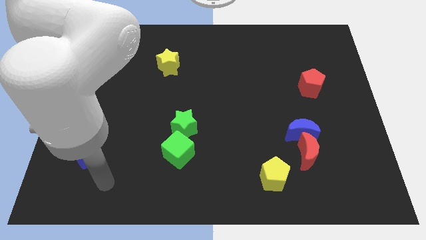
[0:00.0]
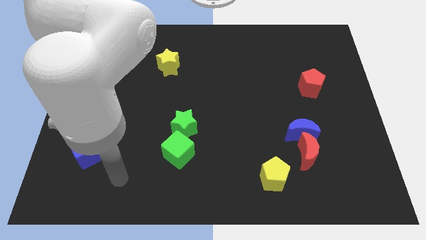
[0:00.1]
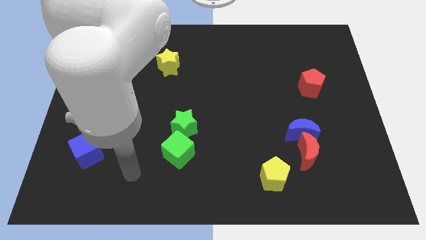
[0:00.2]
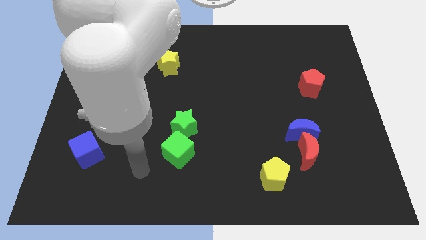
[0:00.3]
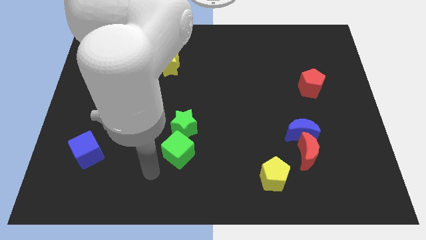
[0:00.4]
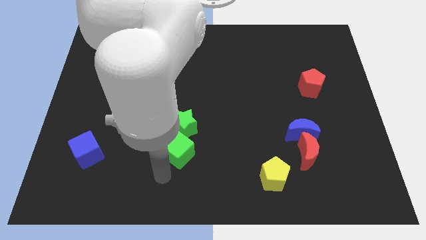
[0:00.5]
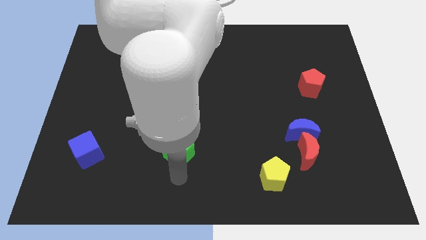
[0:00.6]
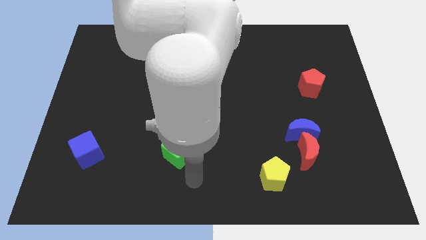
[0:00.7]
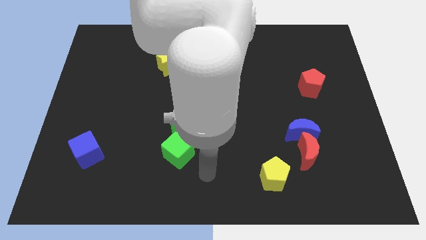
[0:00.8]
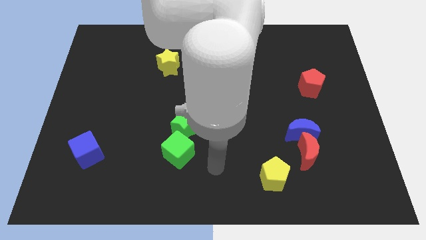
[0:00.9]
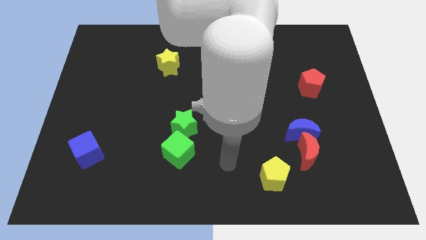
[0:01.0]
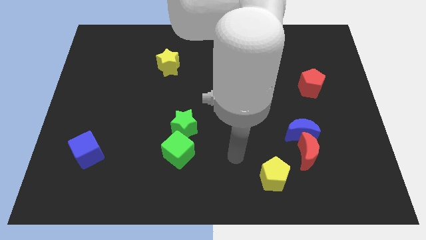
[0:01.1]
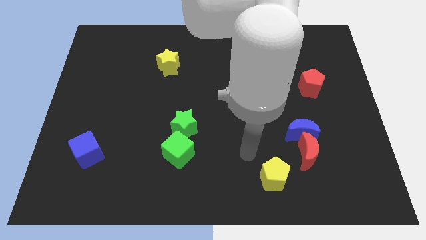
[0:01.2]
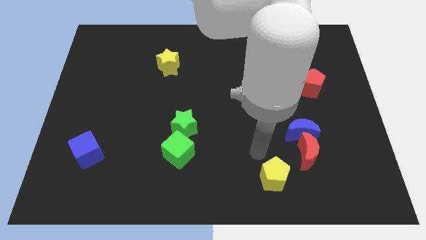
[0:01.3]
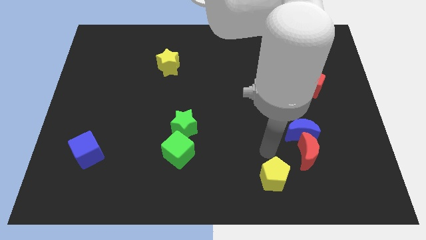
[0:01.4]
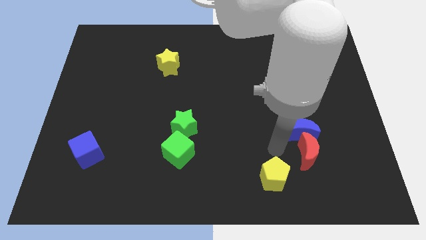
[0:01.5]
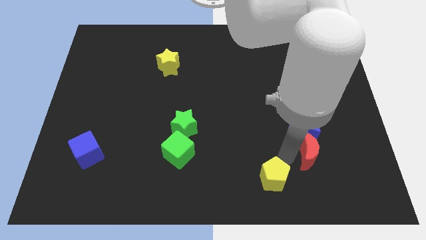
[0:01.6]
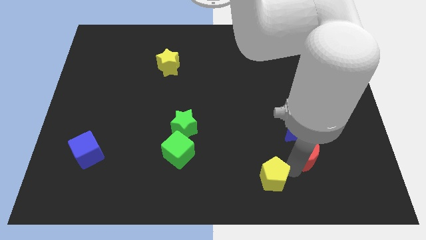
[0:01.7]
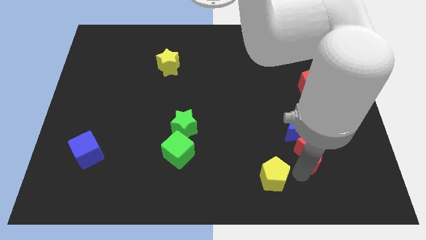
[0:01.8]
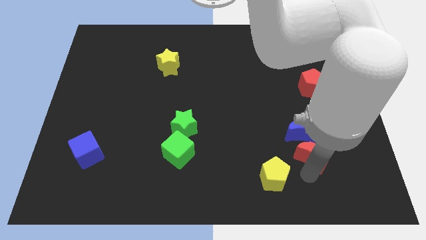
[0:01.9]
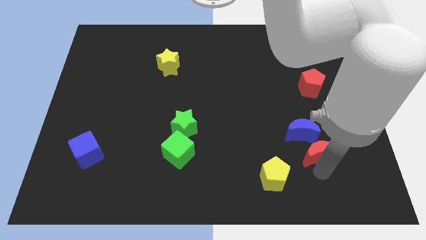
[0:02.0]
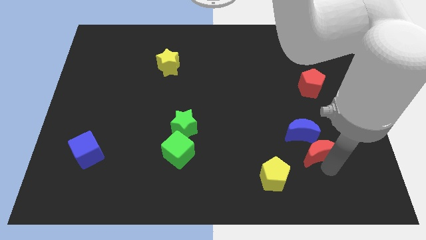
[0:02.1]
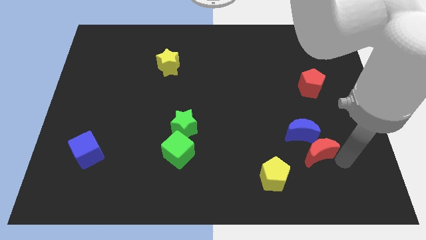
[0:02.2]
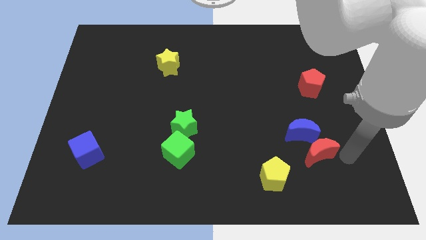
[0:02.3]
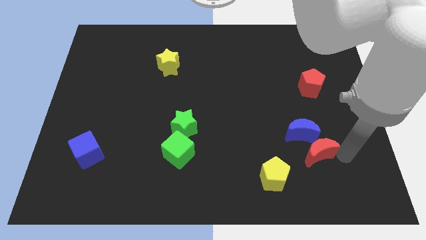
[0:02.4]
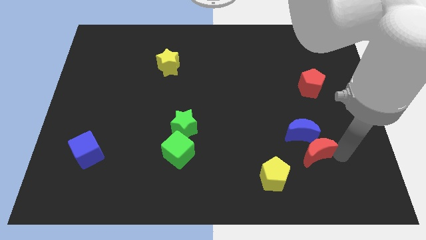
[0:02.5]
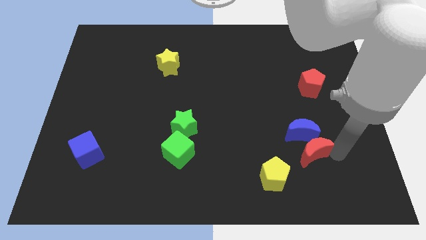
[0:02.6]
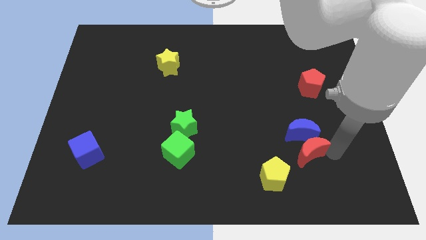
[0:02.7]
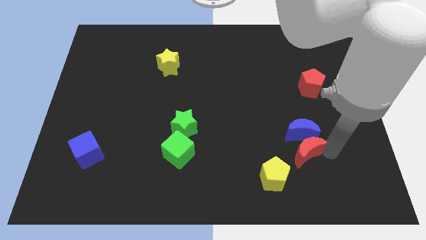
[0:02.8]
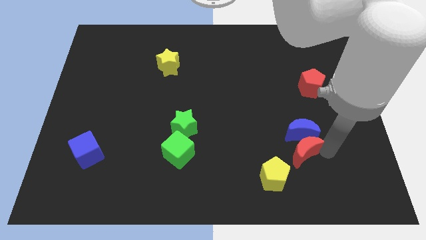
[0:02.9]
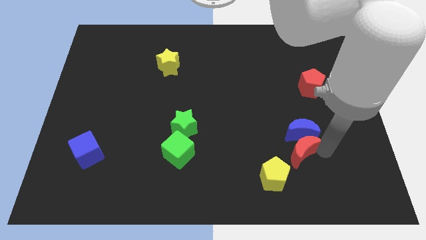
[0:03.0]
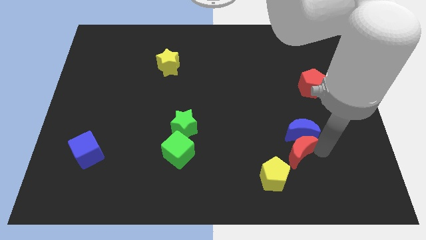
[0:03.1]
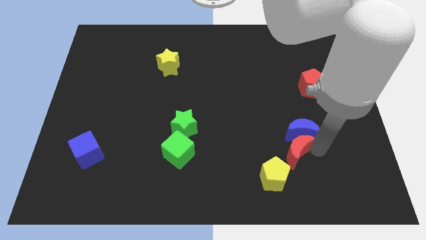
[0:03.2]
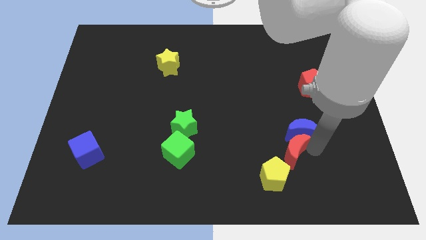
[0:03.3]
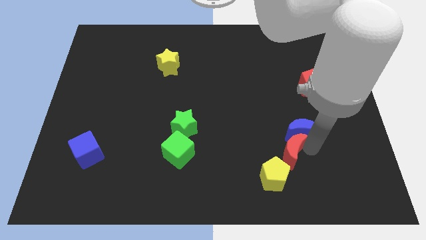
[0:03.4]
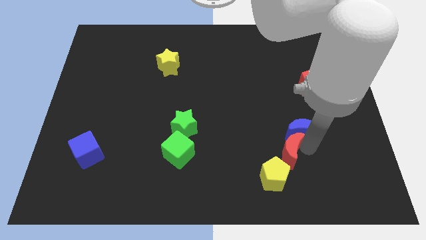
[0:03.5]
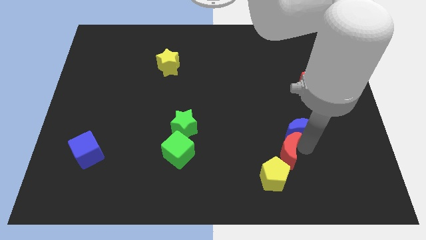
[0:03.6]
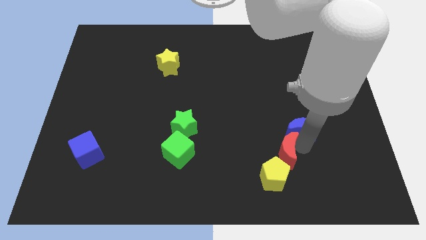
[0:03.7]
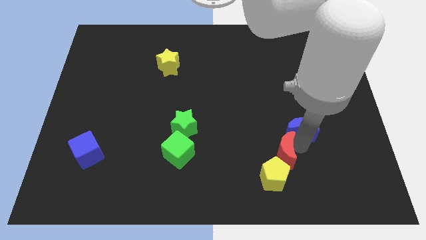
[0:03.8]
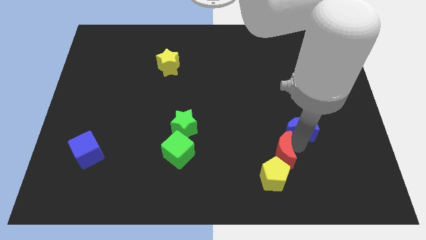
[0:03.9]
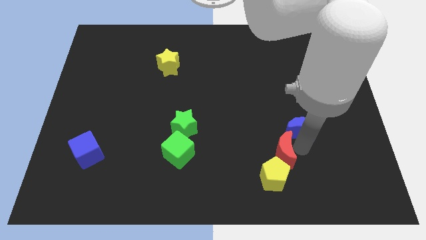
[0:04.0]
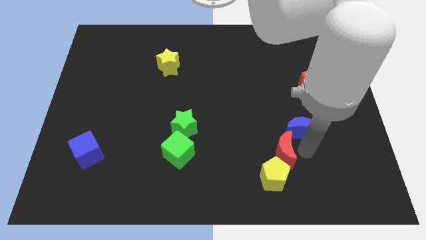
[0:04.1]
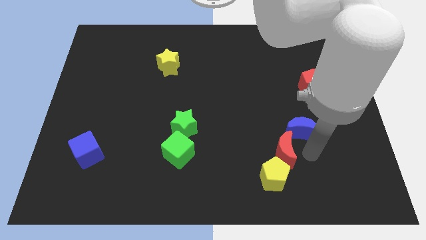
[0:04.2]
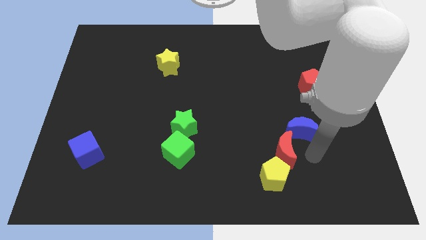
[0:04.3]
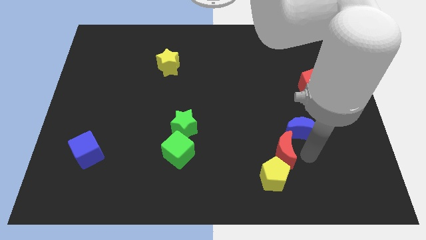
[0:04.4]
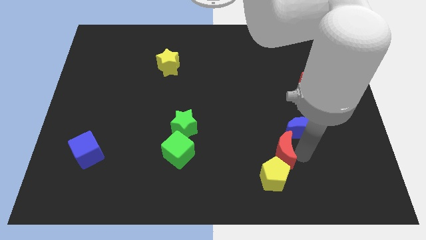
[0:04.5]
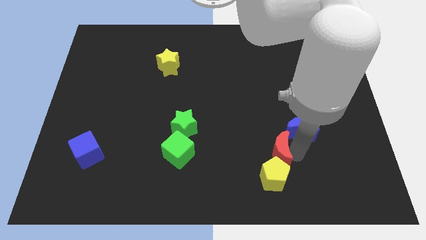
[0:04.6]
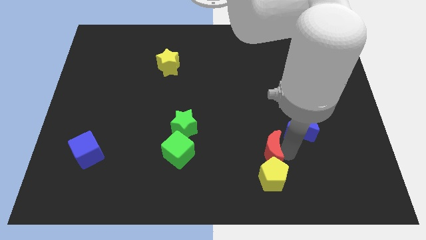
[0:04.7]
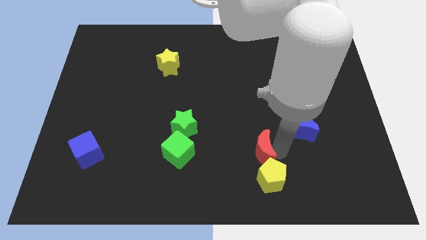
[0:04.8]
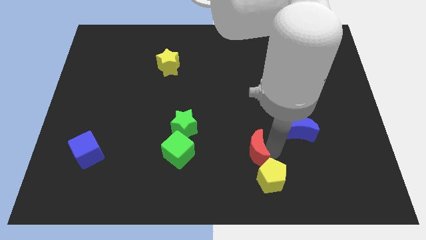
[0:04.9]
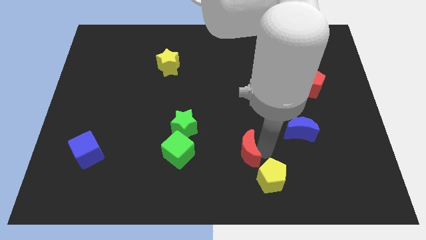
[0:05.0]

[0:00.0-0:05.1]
move the red moon right of the green cube

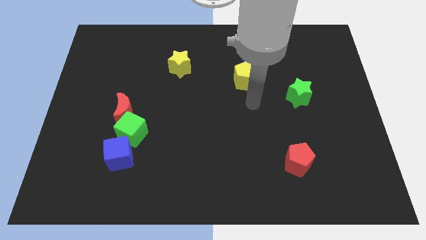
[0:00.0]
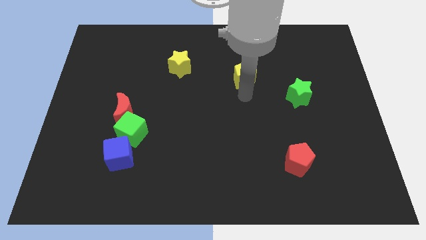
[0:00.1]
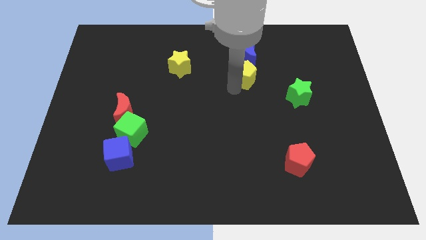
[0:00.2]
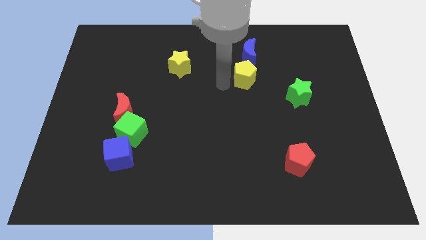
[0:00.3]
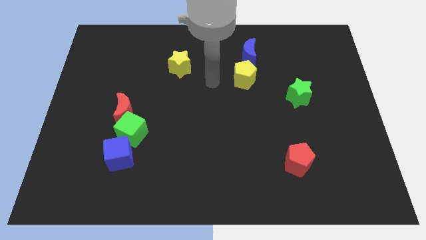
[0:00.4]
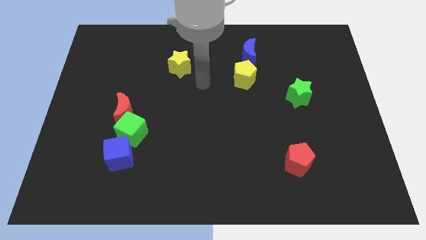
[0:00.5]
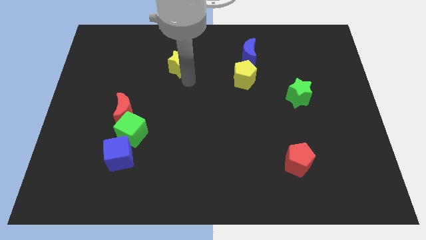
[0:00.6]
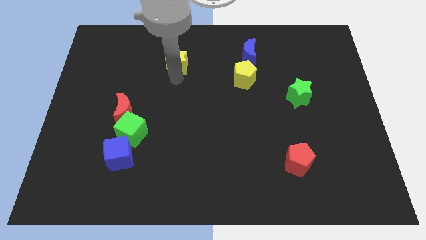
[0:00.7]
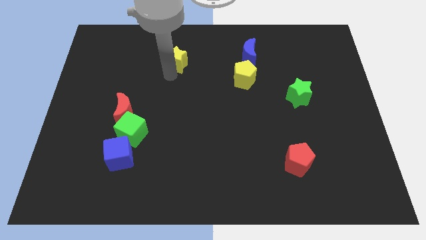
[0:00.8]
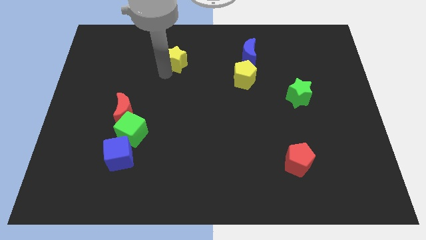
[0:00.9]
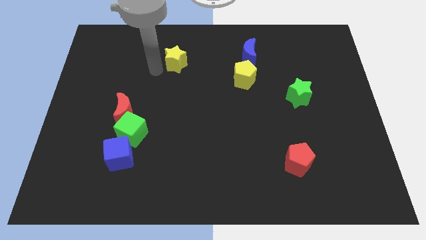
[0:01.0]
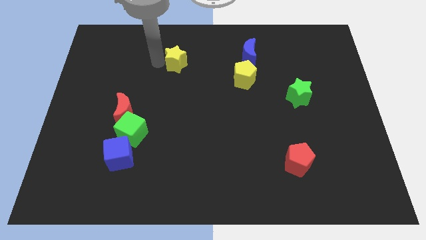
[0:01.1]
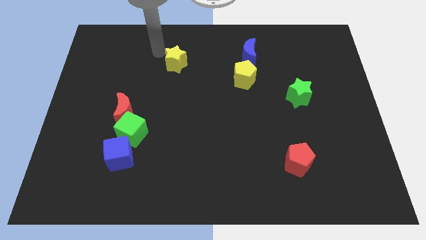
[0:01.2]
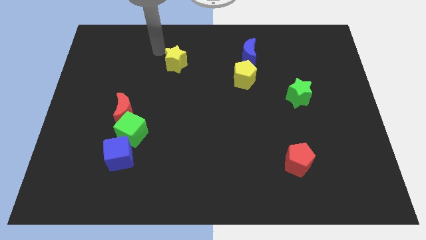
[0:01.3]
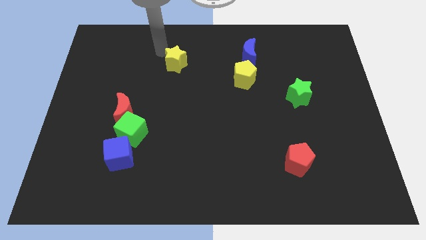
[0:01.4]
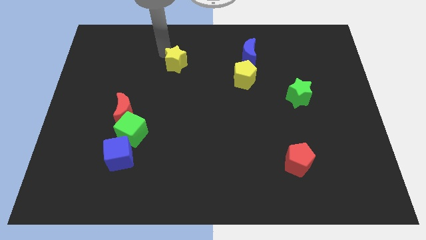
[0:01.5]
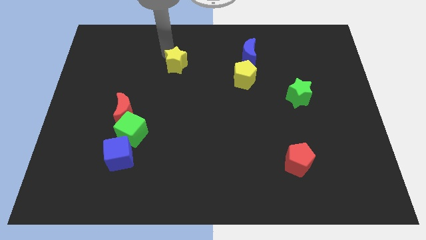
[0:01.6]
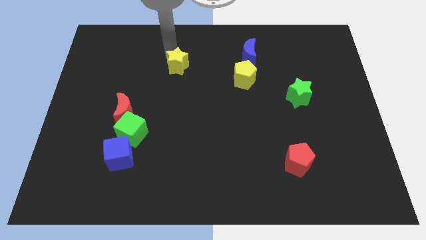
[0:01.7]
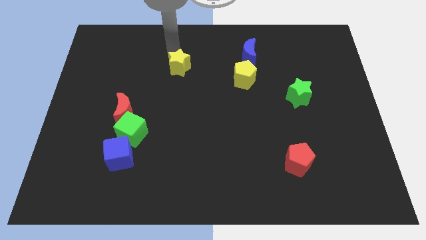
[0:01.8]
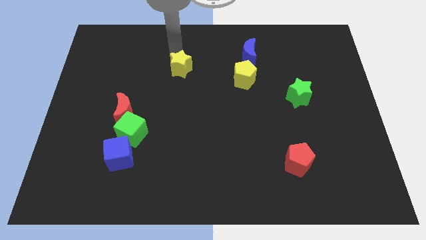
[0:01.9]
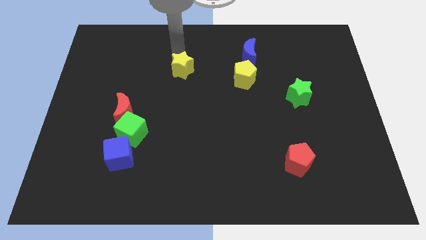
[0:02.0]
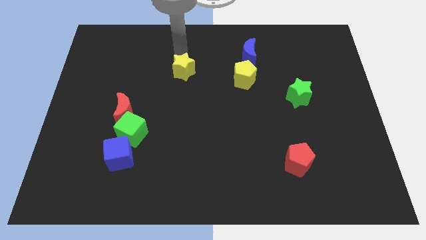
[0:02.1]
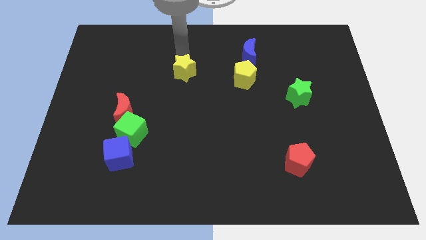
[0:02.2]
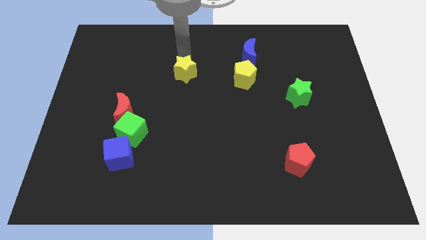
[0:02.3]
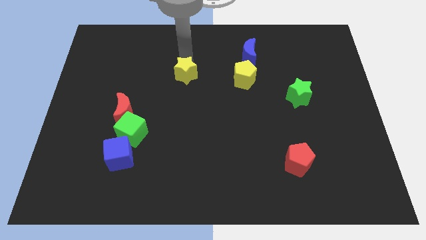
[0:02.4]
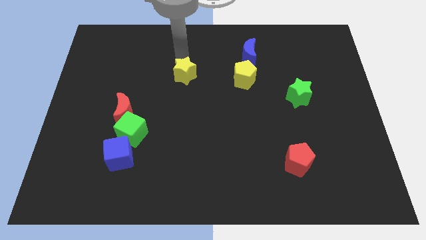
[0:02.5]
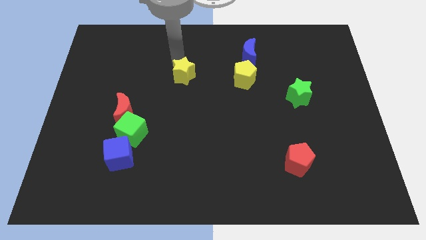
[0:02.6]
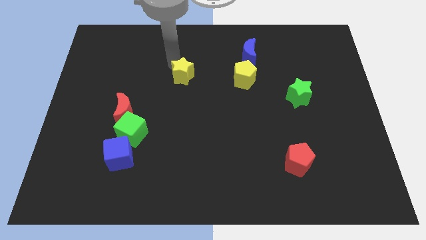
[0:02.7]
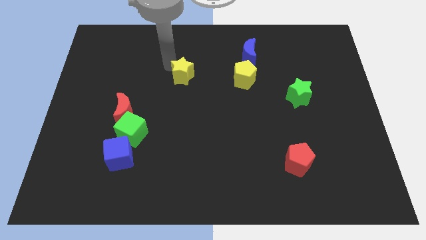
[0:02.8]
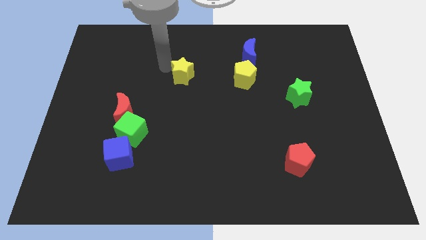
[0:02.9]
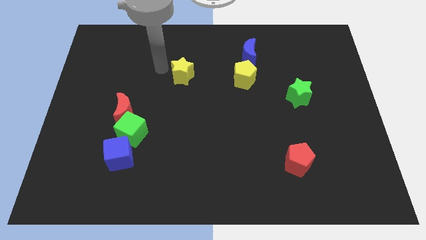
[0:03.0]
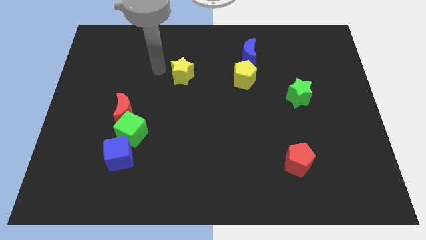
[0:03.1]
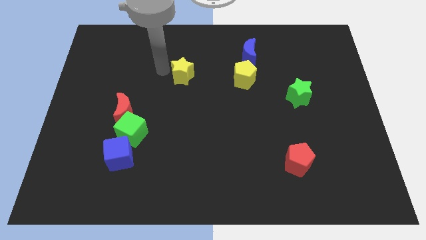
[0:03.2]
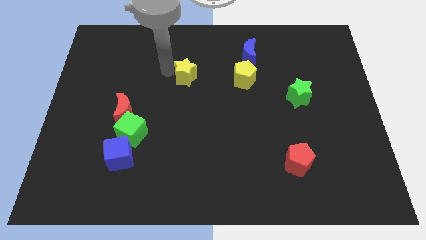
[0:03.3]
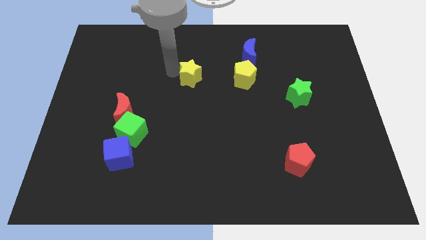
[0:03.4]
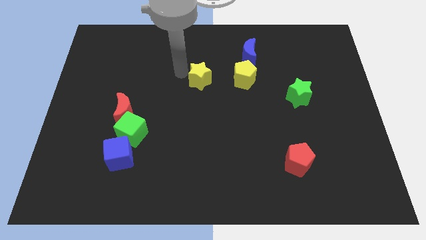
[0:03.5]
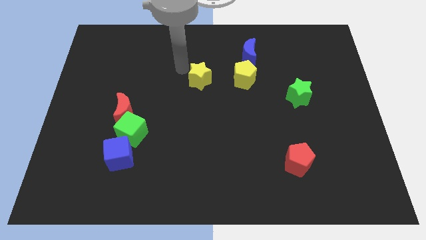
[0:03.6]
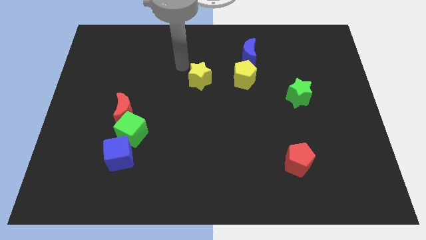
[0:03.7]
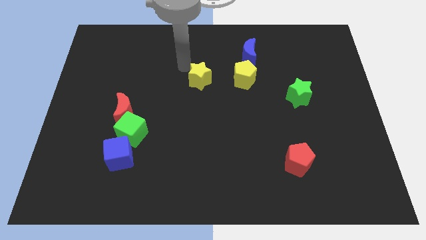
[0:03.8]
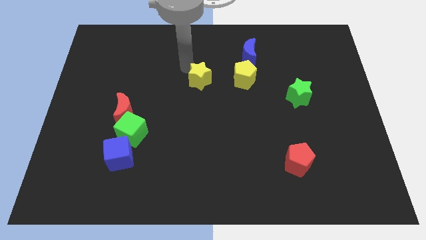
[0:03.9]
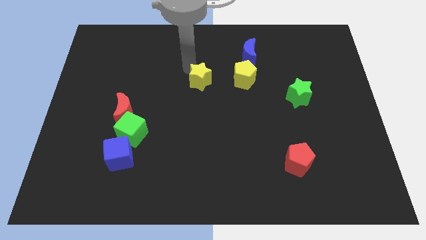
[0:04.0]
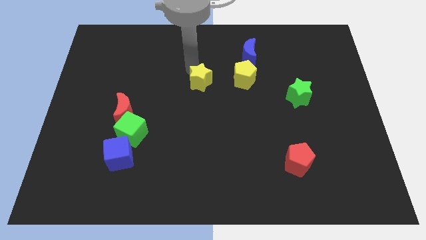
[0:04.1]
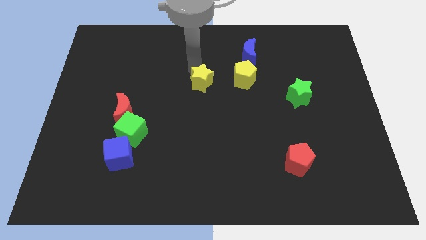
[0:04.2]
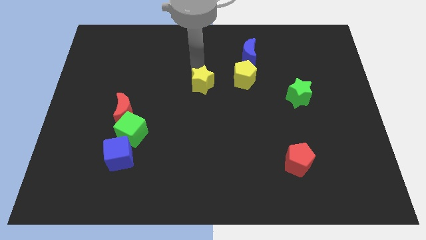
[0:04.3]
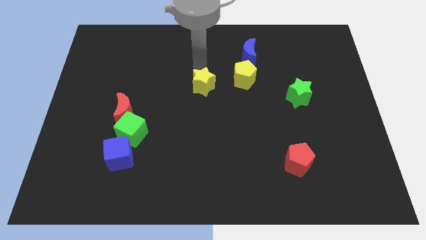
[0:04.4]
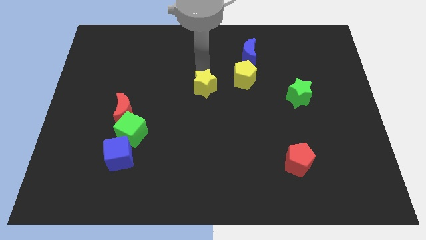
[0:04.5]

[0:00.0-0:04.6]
put the yellow star to the bottom left of the yellow pentagon
